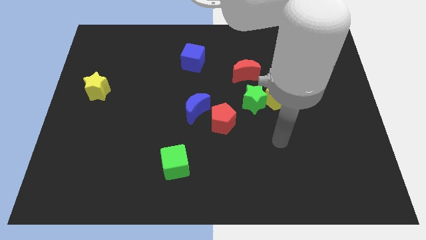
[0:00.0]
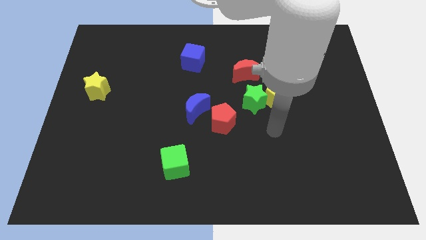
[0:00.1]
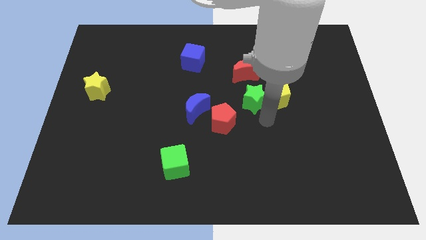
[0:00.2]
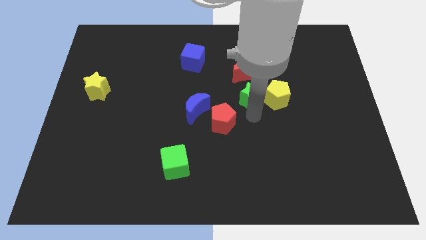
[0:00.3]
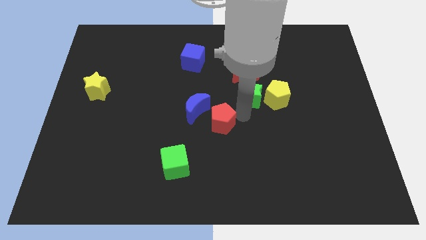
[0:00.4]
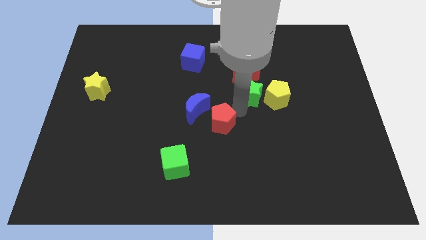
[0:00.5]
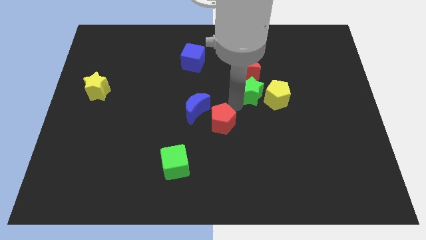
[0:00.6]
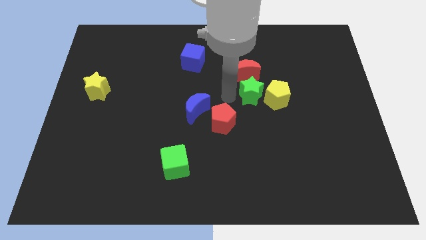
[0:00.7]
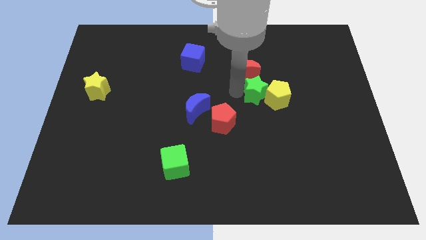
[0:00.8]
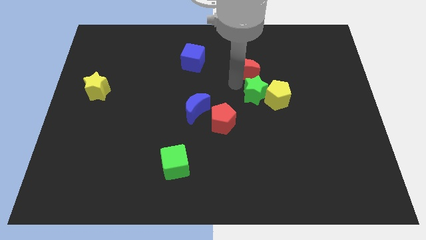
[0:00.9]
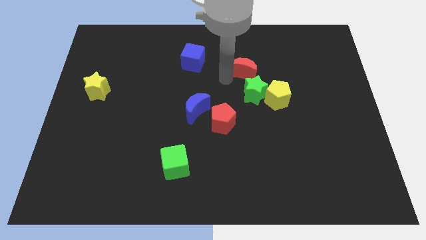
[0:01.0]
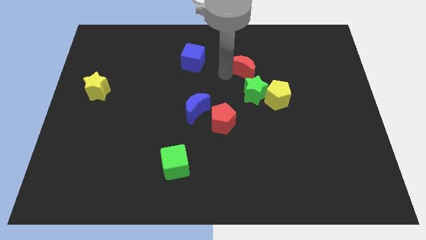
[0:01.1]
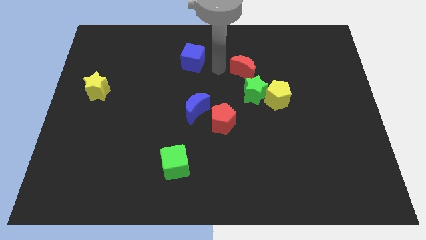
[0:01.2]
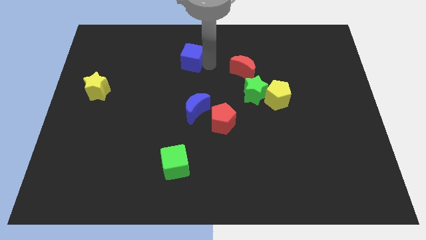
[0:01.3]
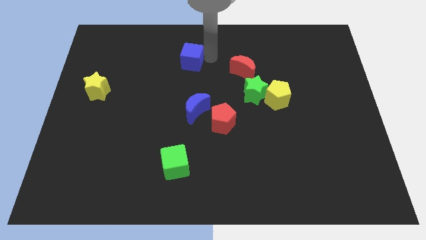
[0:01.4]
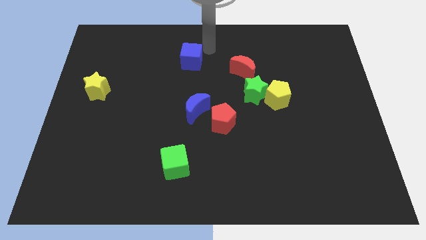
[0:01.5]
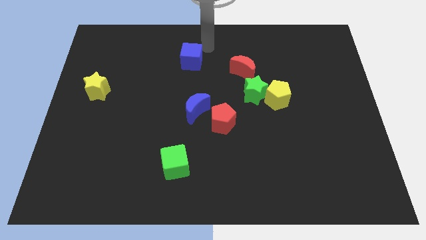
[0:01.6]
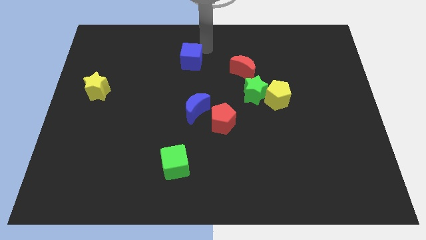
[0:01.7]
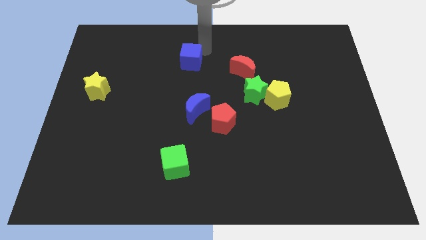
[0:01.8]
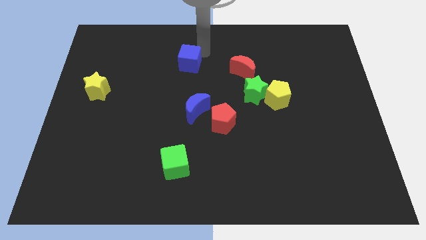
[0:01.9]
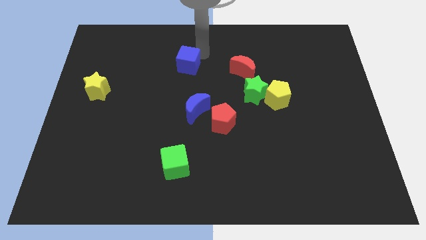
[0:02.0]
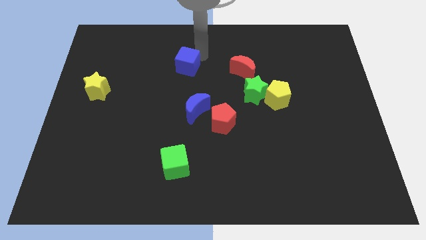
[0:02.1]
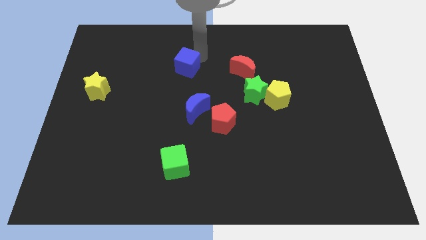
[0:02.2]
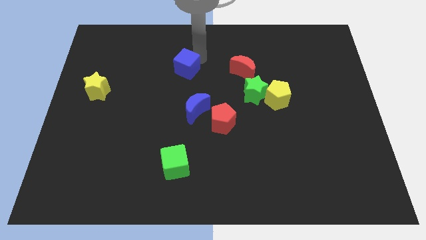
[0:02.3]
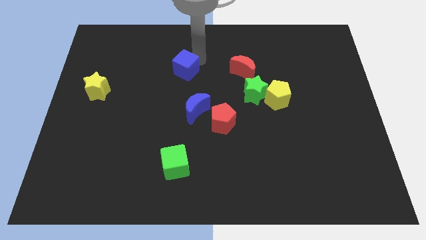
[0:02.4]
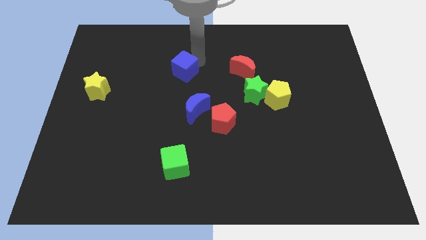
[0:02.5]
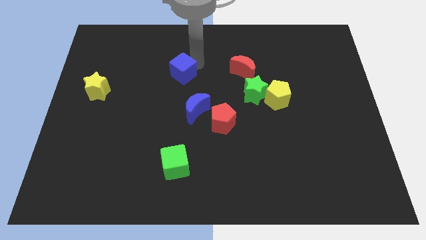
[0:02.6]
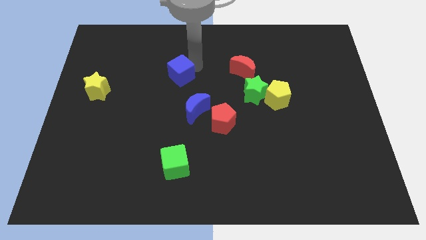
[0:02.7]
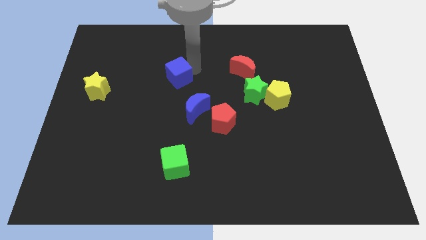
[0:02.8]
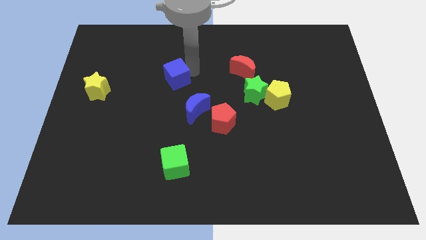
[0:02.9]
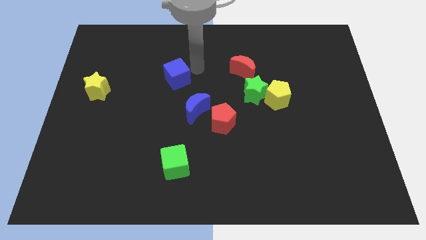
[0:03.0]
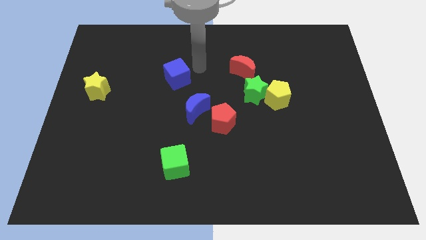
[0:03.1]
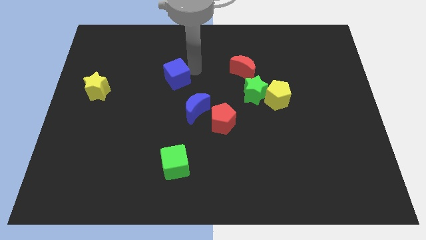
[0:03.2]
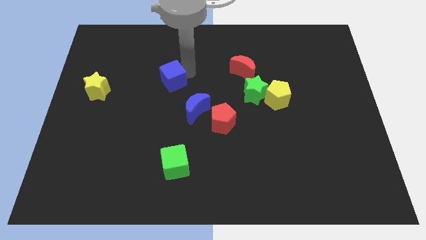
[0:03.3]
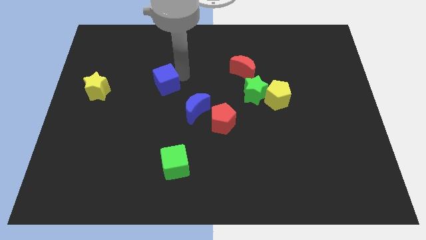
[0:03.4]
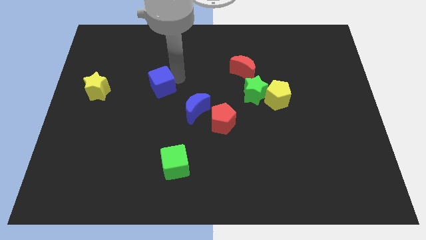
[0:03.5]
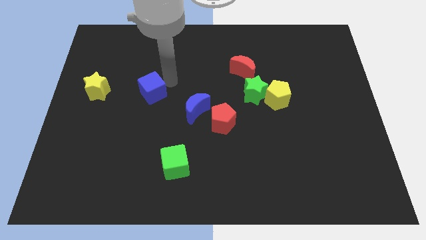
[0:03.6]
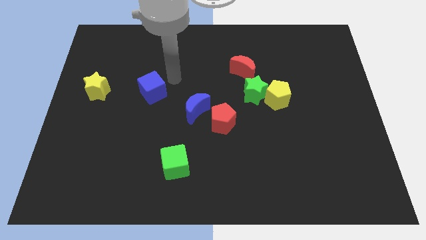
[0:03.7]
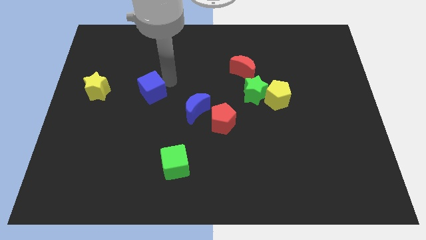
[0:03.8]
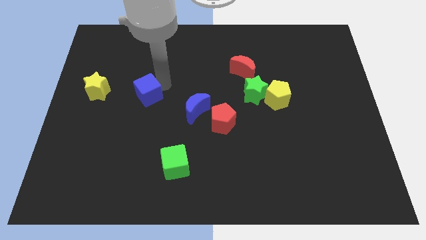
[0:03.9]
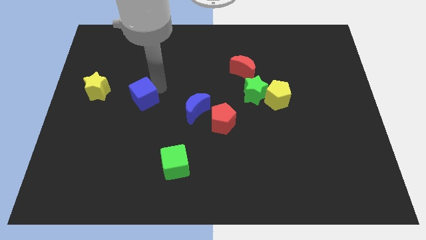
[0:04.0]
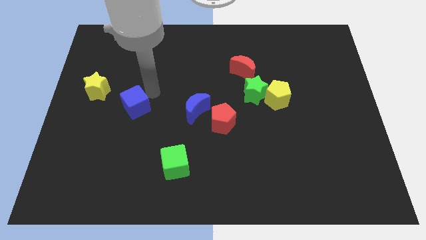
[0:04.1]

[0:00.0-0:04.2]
slide the blue cube downwards and left diagonally

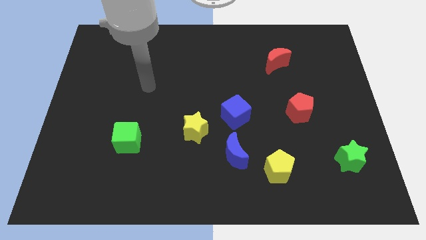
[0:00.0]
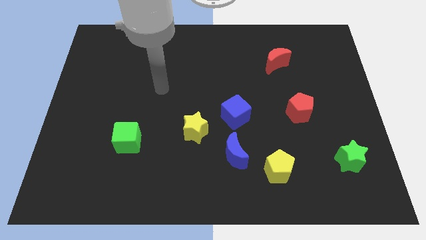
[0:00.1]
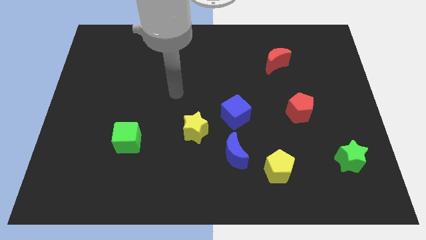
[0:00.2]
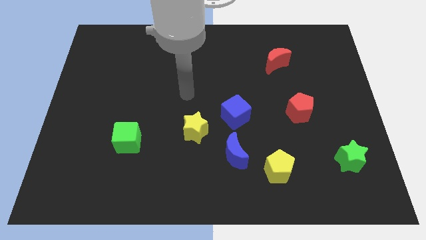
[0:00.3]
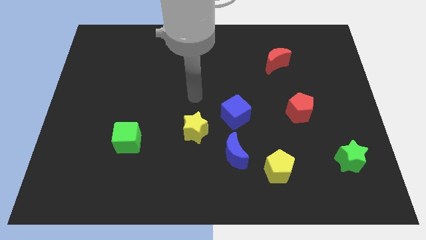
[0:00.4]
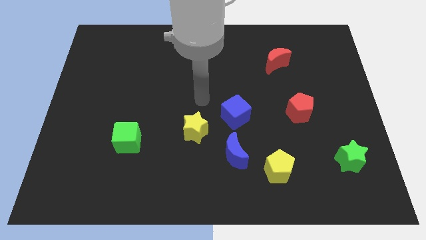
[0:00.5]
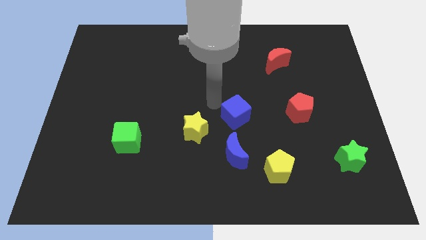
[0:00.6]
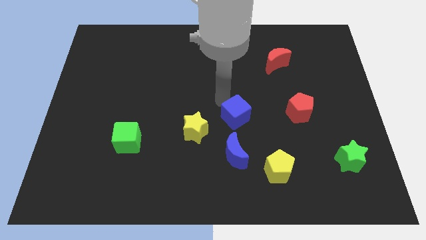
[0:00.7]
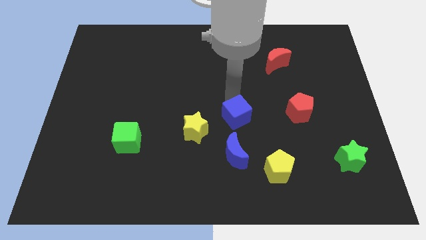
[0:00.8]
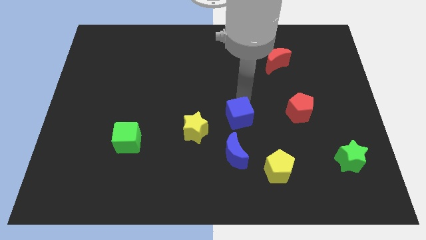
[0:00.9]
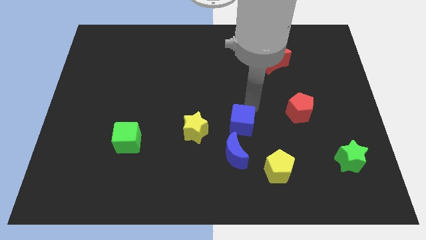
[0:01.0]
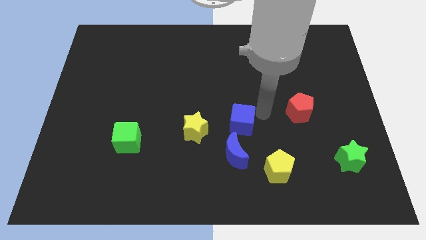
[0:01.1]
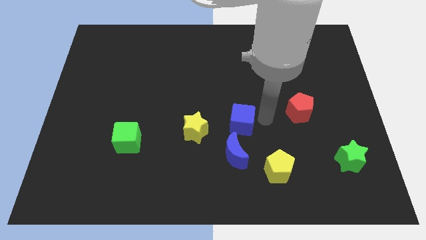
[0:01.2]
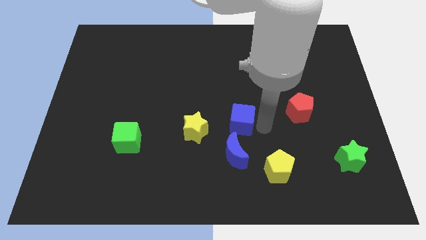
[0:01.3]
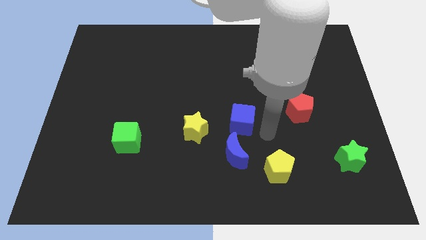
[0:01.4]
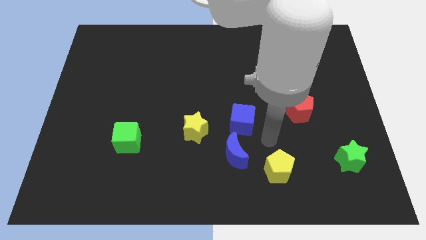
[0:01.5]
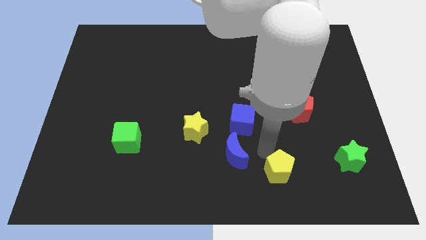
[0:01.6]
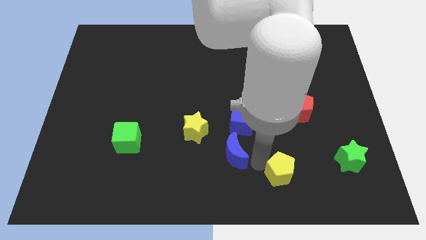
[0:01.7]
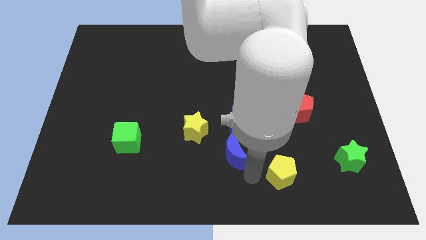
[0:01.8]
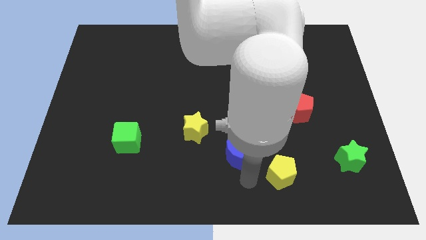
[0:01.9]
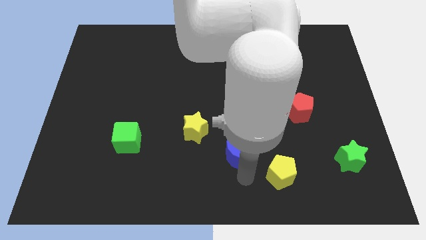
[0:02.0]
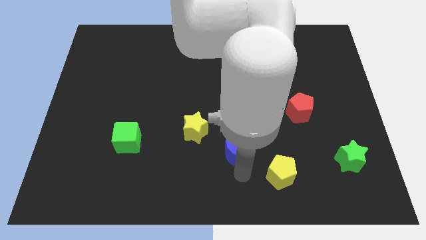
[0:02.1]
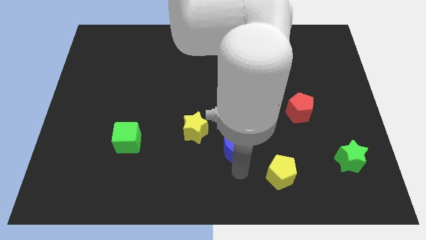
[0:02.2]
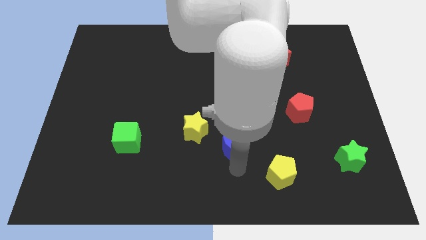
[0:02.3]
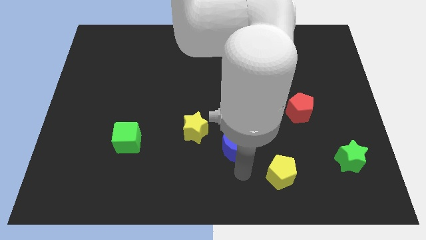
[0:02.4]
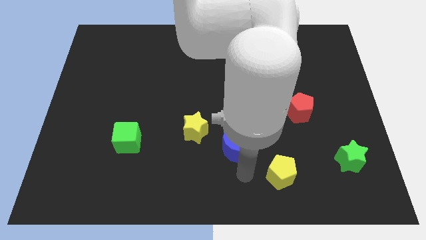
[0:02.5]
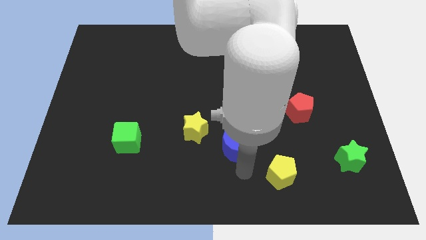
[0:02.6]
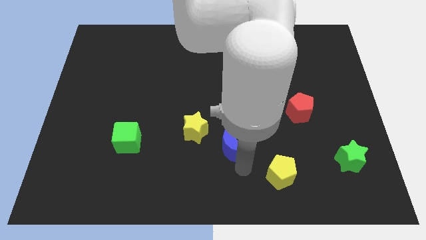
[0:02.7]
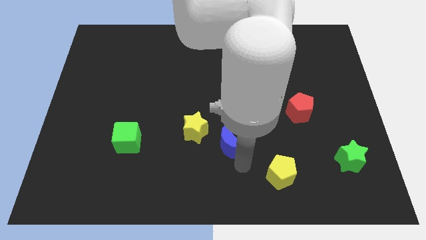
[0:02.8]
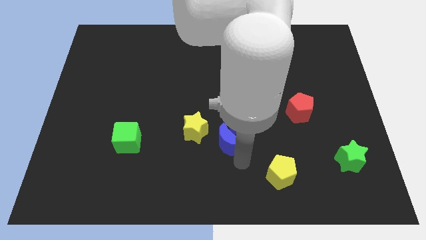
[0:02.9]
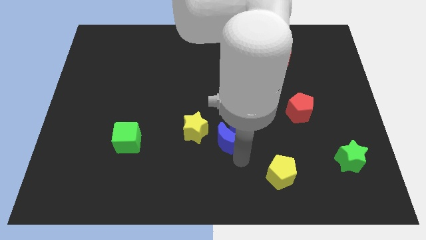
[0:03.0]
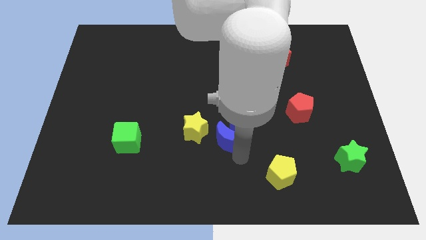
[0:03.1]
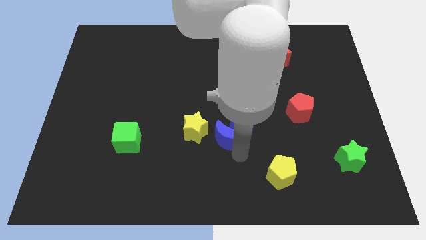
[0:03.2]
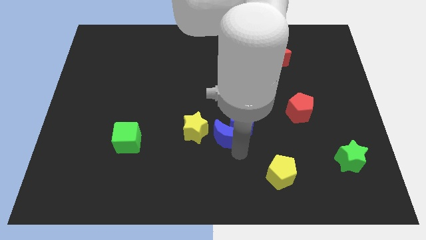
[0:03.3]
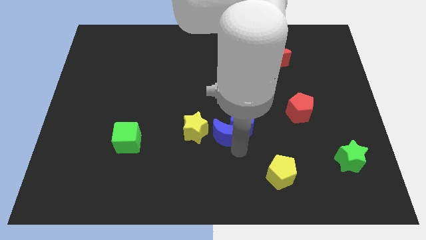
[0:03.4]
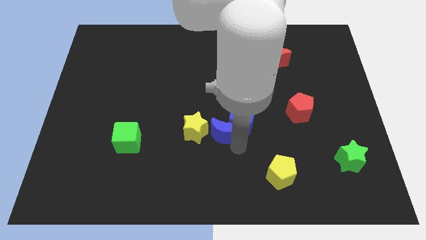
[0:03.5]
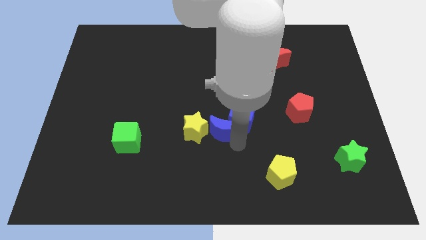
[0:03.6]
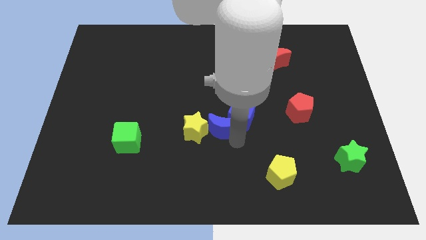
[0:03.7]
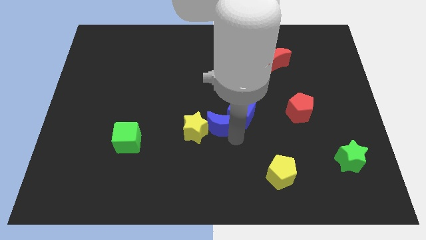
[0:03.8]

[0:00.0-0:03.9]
move the blue moon a bit diagonally upwards and left
